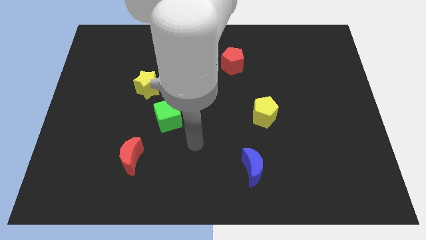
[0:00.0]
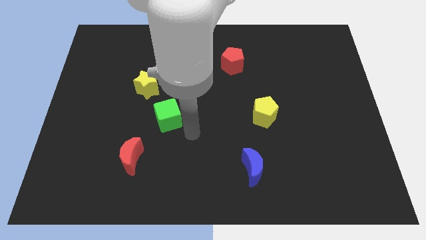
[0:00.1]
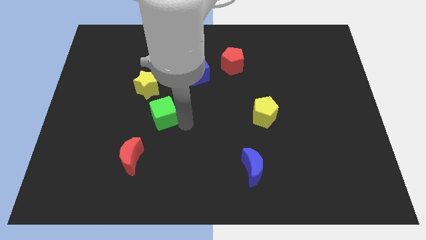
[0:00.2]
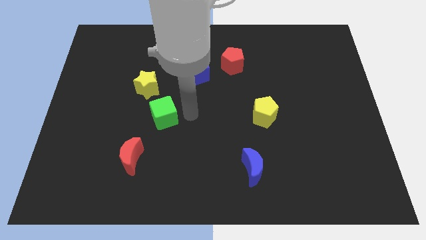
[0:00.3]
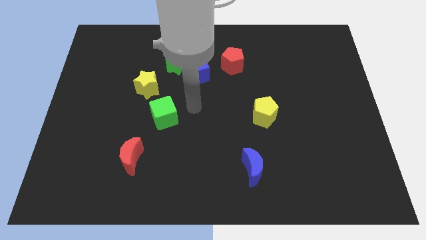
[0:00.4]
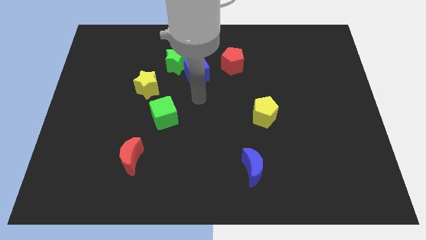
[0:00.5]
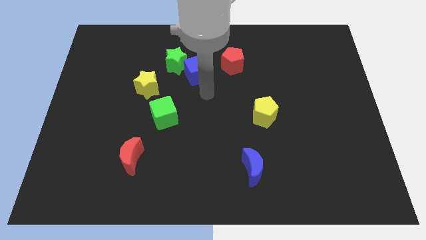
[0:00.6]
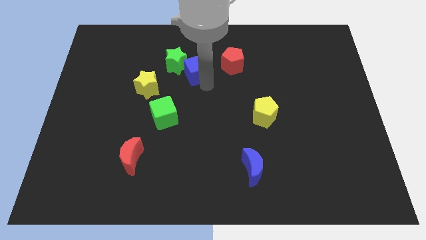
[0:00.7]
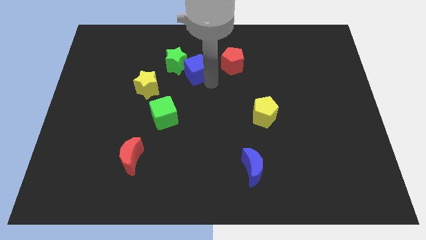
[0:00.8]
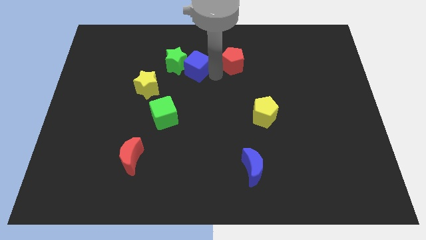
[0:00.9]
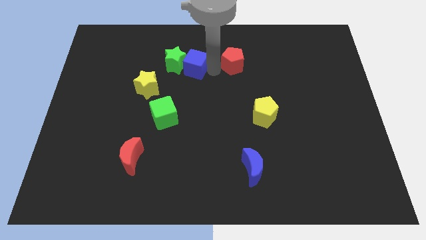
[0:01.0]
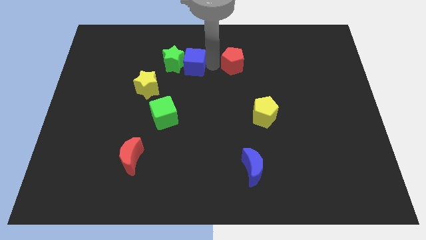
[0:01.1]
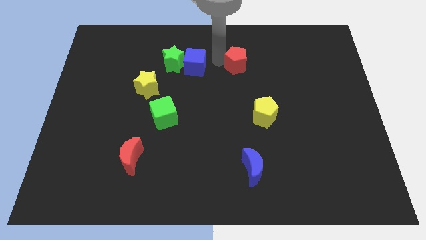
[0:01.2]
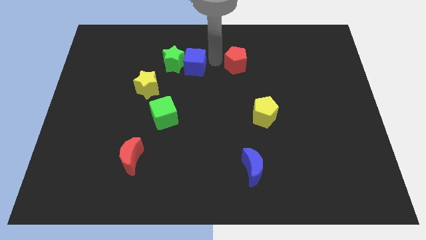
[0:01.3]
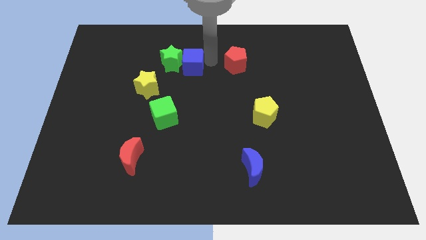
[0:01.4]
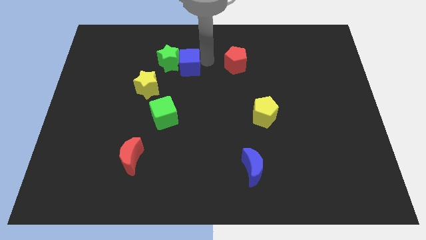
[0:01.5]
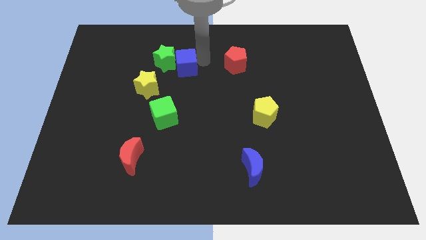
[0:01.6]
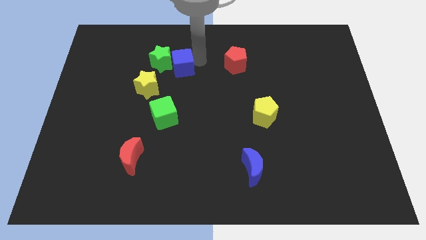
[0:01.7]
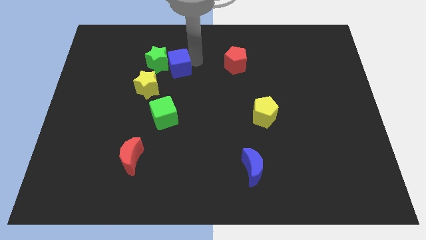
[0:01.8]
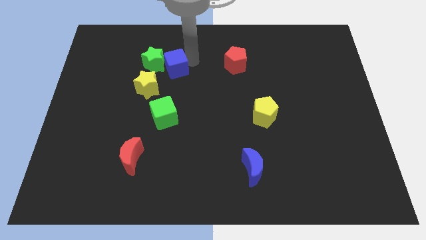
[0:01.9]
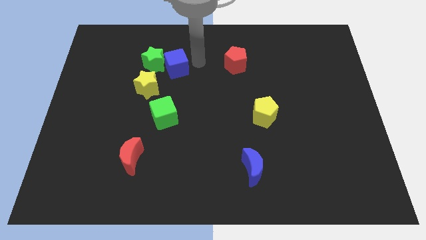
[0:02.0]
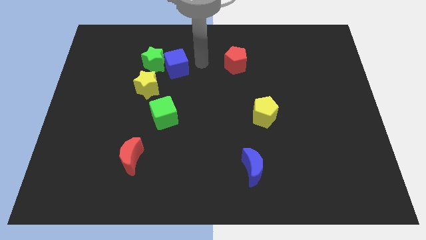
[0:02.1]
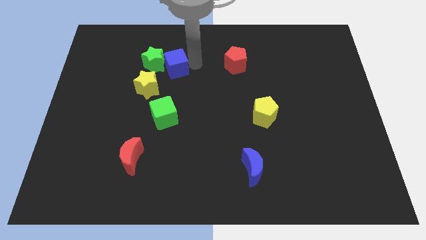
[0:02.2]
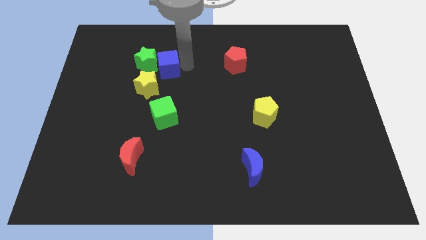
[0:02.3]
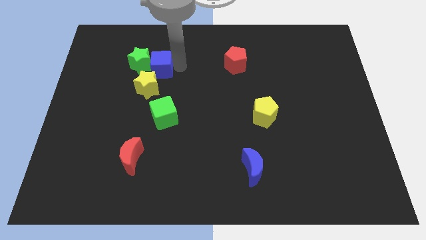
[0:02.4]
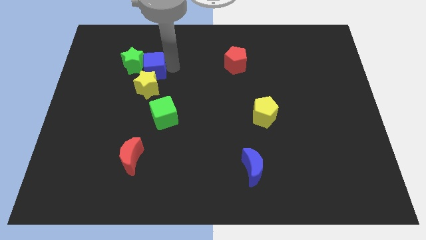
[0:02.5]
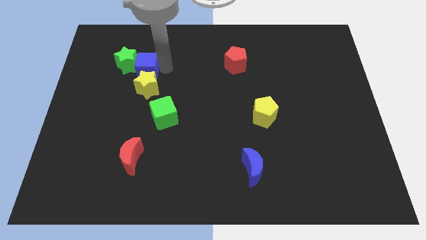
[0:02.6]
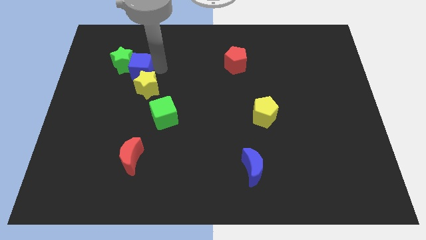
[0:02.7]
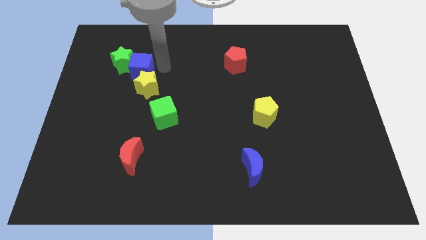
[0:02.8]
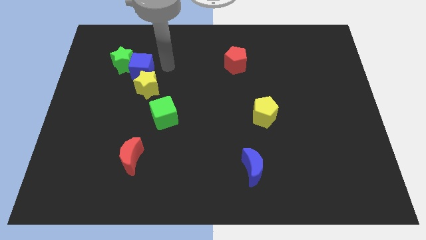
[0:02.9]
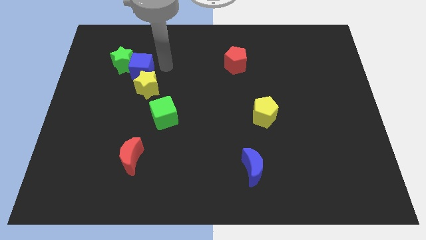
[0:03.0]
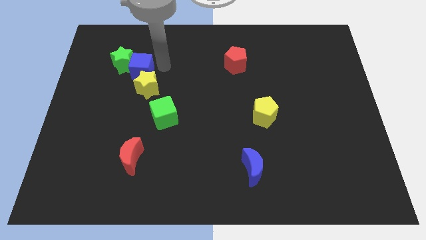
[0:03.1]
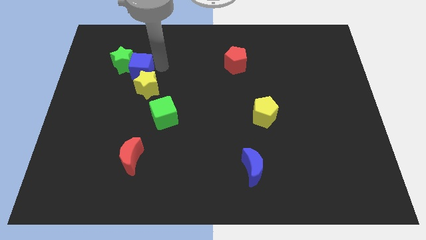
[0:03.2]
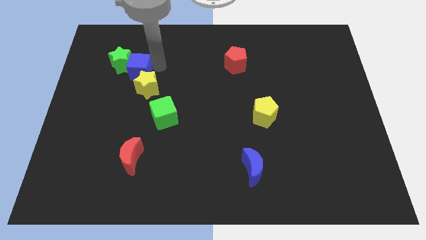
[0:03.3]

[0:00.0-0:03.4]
pull the blue cube apart from the green star and red pentagon

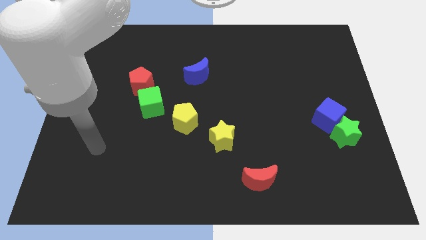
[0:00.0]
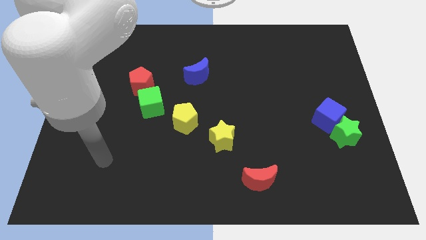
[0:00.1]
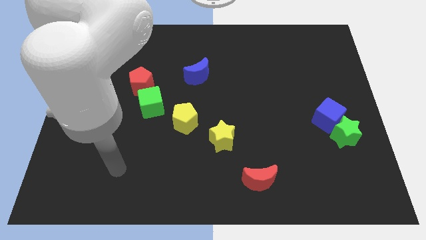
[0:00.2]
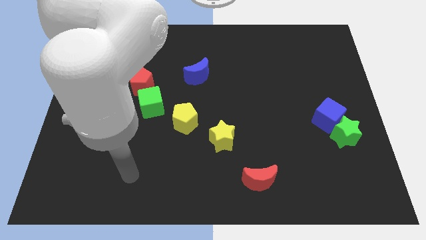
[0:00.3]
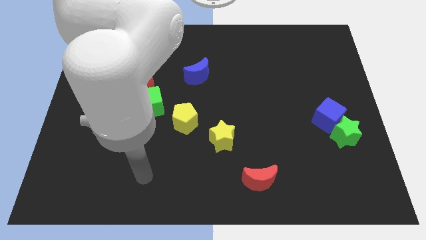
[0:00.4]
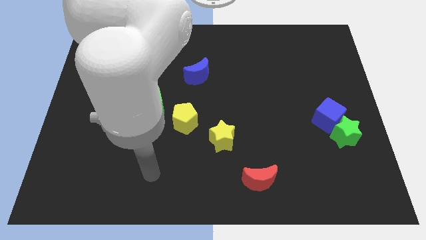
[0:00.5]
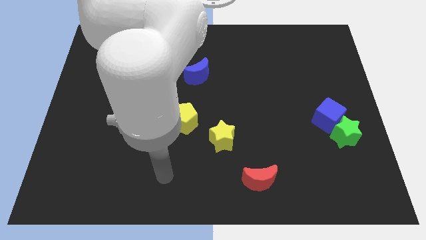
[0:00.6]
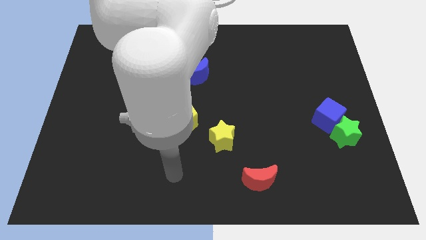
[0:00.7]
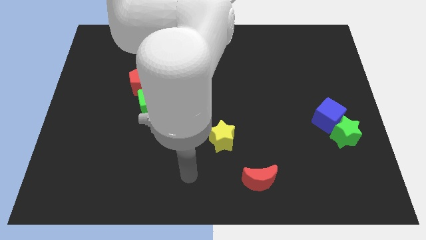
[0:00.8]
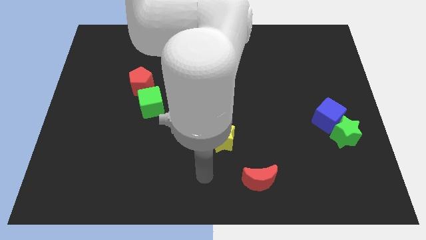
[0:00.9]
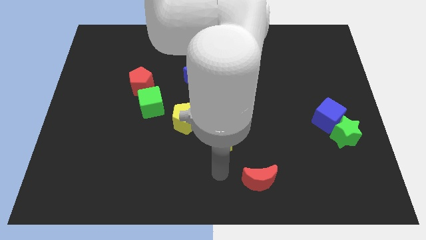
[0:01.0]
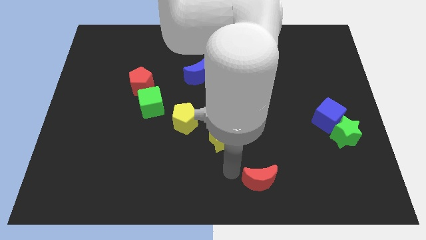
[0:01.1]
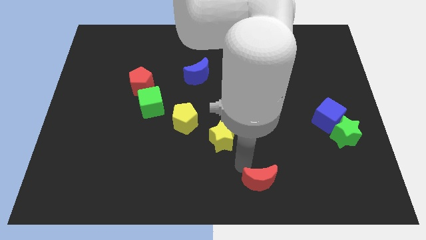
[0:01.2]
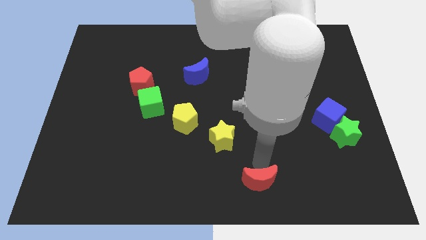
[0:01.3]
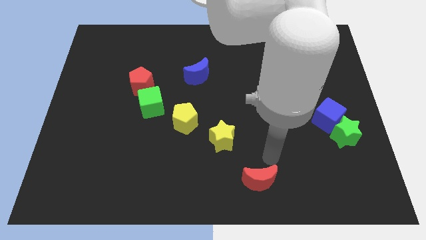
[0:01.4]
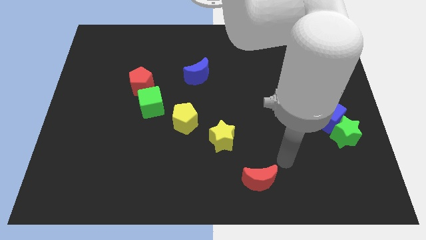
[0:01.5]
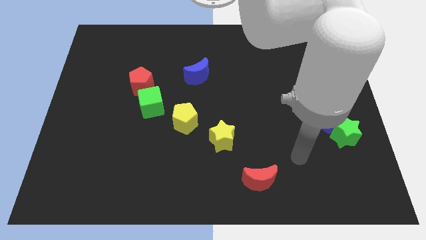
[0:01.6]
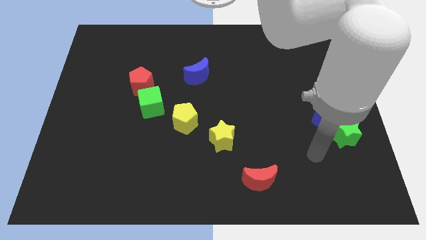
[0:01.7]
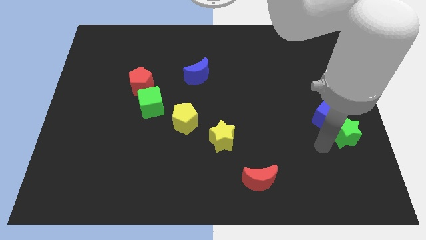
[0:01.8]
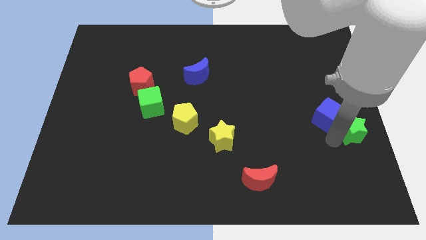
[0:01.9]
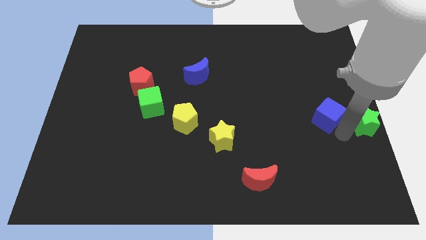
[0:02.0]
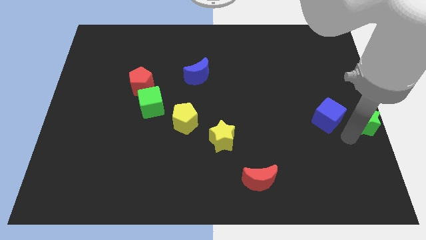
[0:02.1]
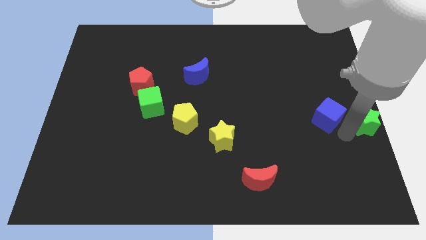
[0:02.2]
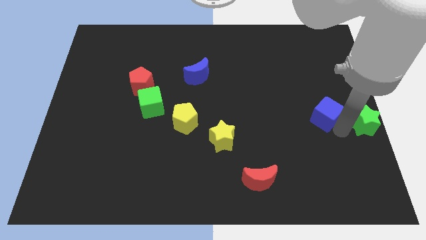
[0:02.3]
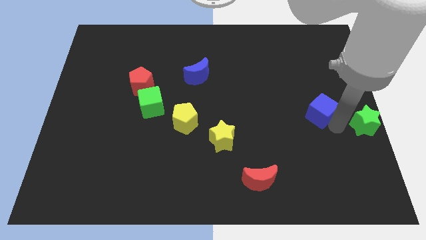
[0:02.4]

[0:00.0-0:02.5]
pull the blue cube apart from the green star

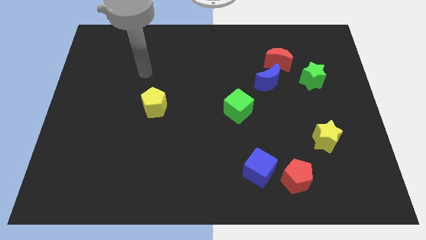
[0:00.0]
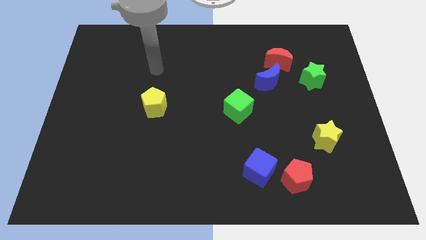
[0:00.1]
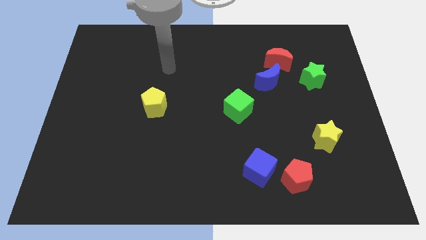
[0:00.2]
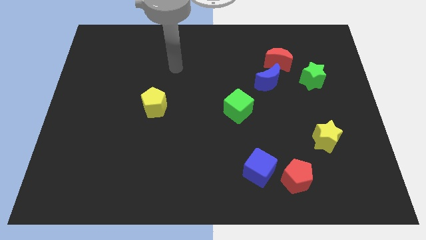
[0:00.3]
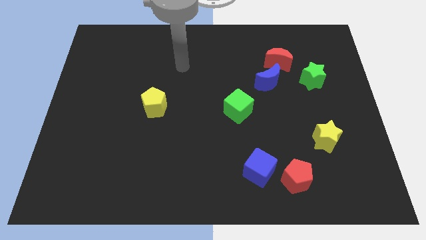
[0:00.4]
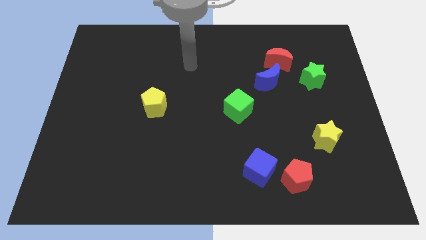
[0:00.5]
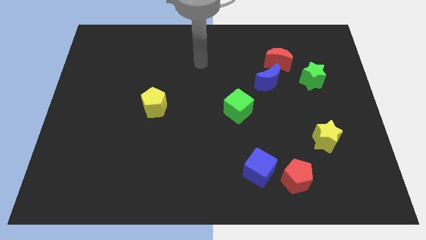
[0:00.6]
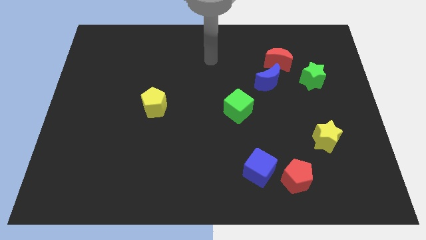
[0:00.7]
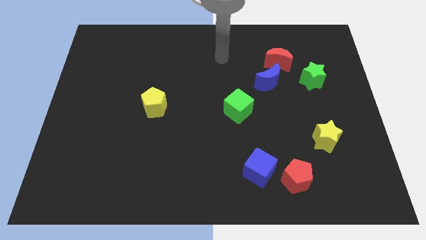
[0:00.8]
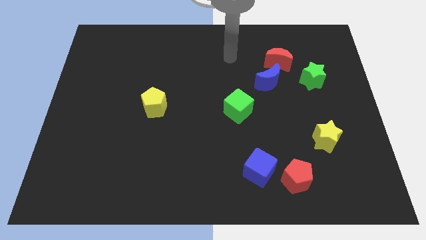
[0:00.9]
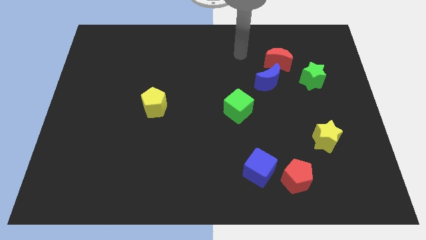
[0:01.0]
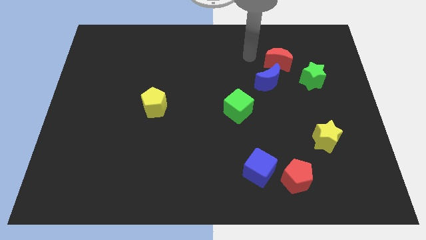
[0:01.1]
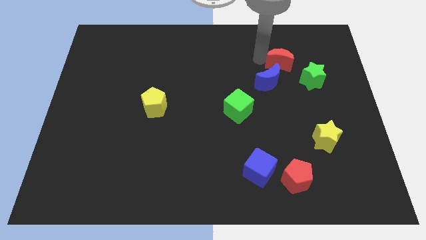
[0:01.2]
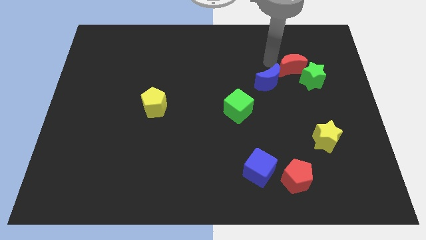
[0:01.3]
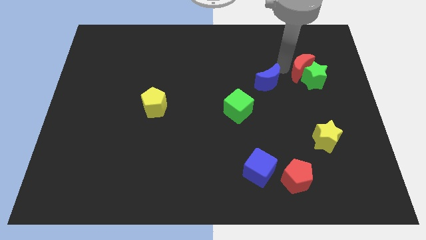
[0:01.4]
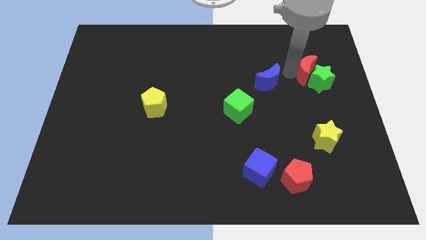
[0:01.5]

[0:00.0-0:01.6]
pull the blue moon apart from the red moon

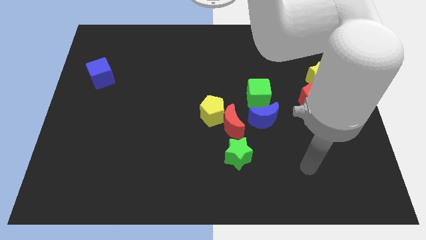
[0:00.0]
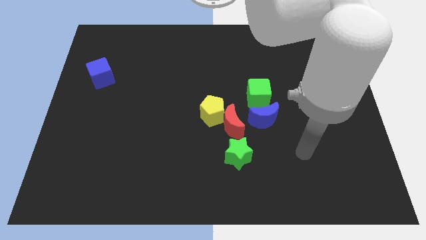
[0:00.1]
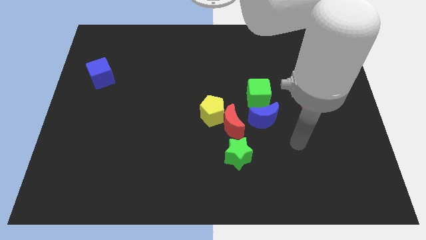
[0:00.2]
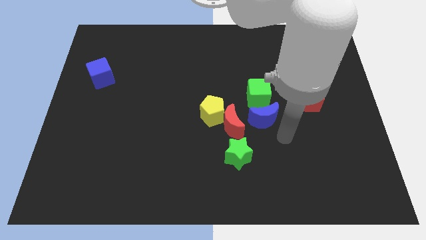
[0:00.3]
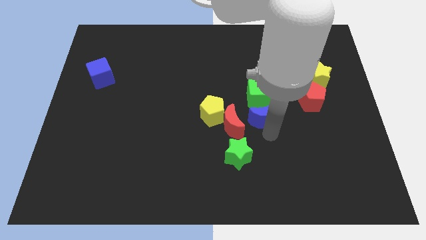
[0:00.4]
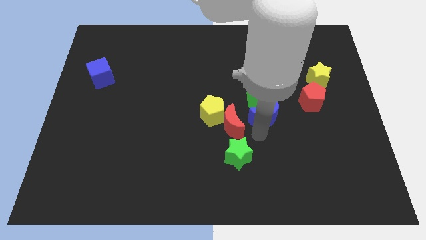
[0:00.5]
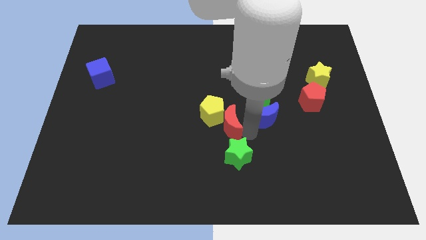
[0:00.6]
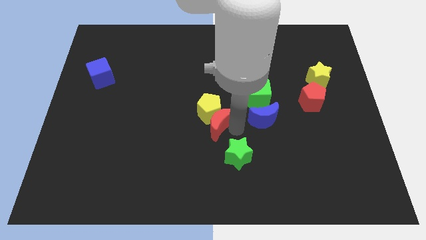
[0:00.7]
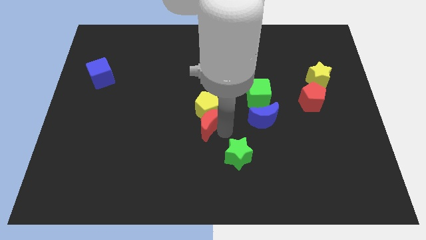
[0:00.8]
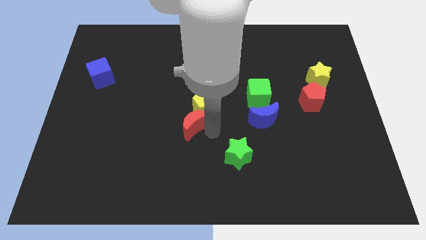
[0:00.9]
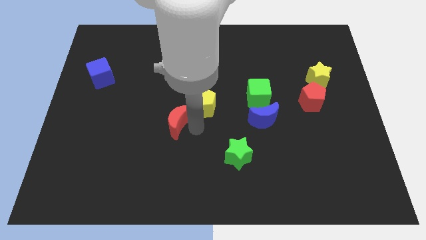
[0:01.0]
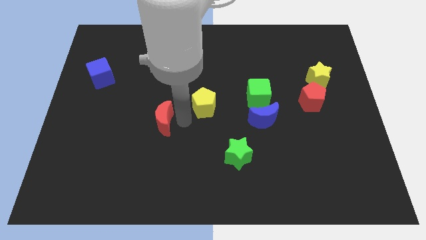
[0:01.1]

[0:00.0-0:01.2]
pull the yellow pentagon apart from the red moon

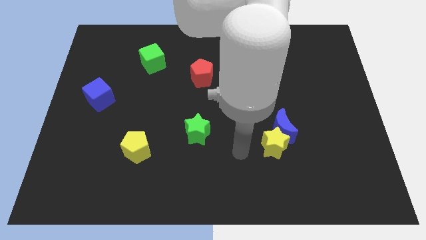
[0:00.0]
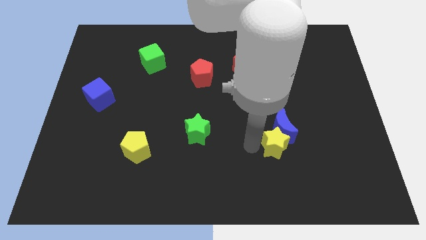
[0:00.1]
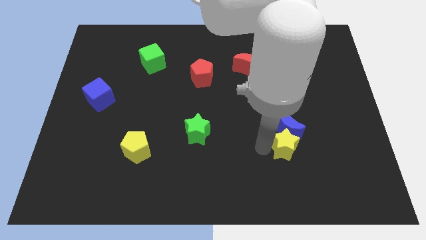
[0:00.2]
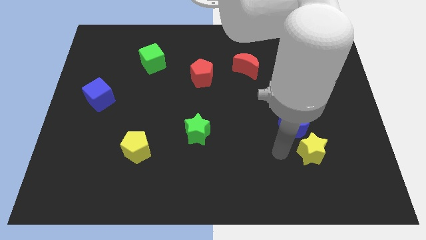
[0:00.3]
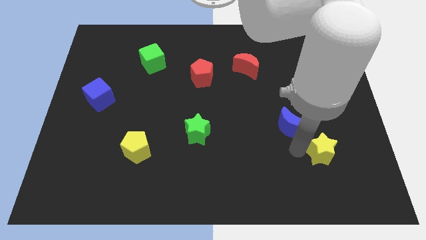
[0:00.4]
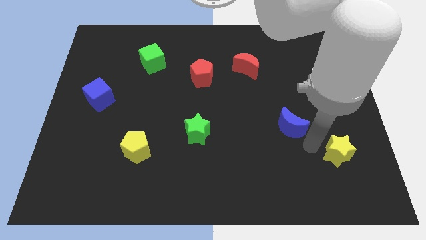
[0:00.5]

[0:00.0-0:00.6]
move the blue moon away from the yellow star
